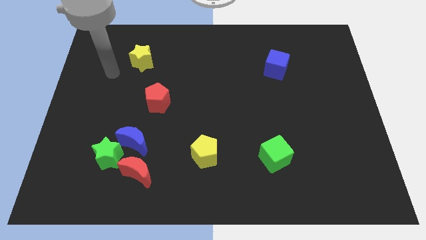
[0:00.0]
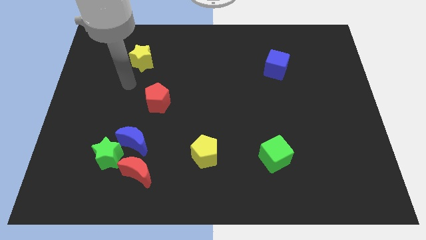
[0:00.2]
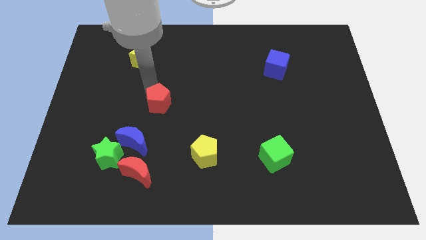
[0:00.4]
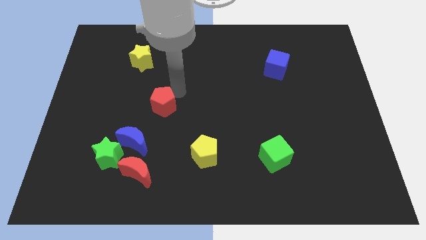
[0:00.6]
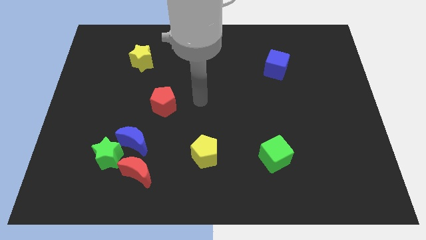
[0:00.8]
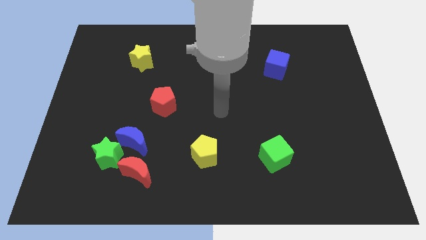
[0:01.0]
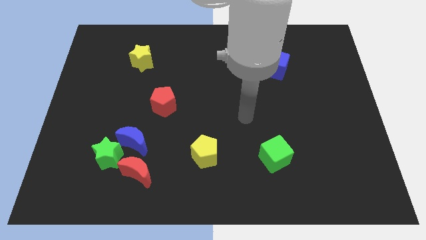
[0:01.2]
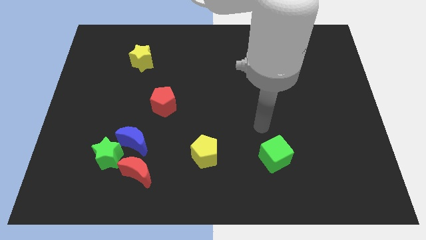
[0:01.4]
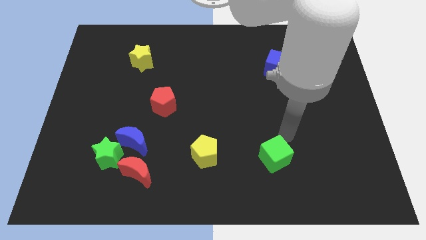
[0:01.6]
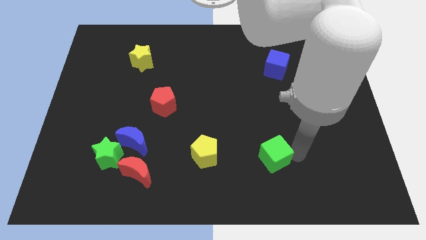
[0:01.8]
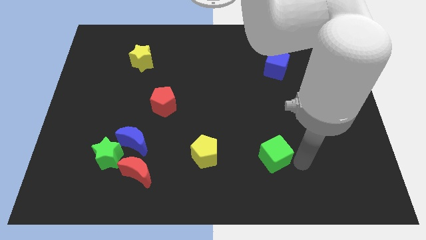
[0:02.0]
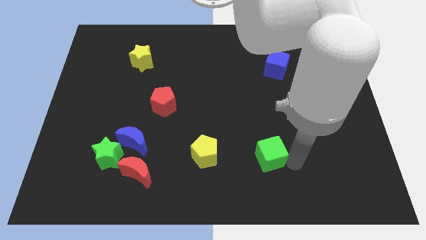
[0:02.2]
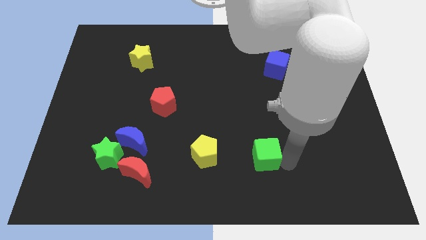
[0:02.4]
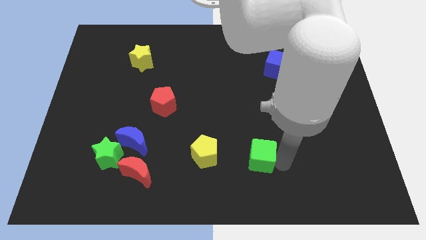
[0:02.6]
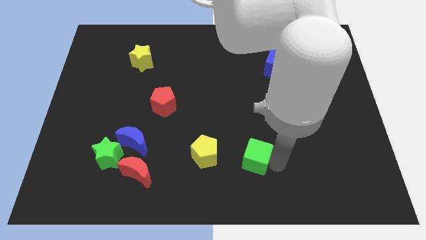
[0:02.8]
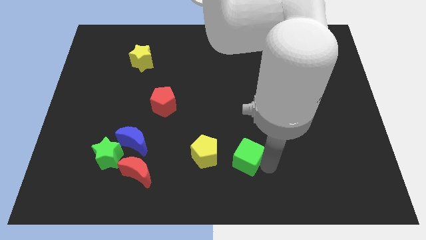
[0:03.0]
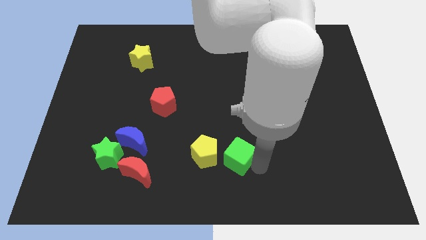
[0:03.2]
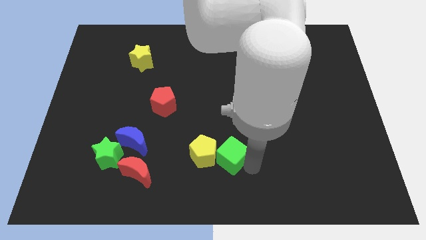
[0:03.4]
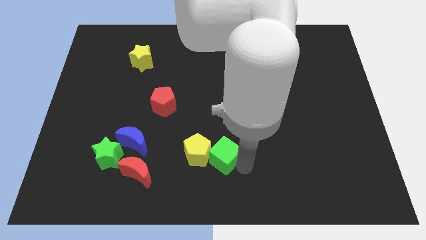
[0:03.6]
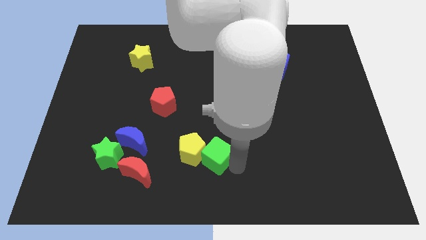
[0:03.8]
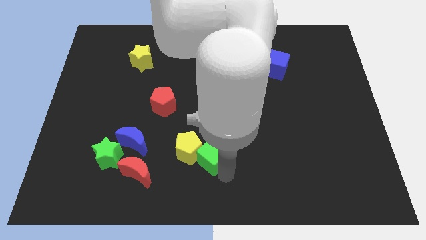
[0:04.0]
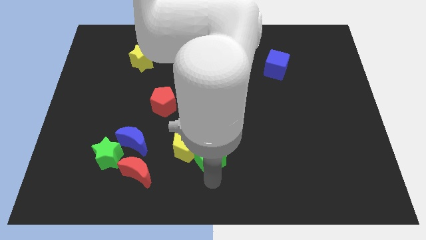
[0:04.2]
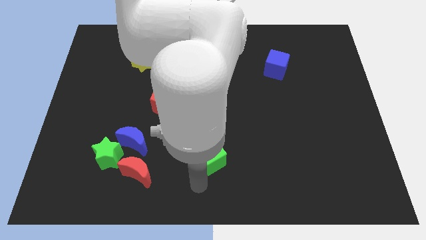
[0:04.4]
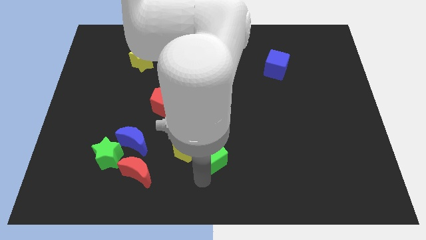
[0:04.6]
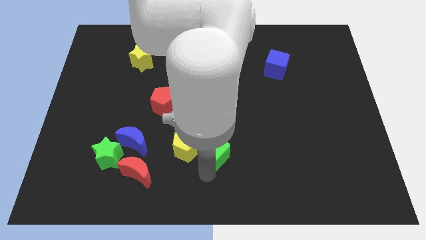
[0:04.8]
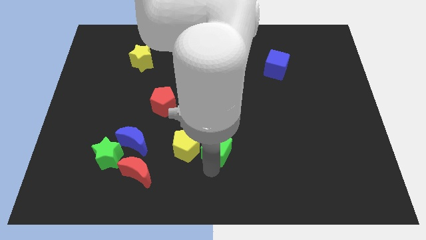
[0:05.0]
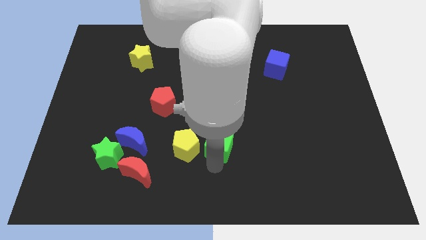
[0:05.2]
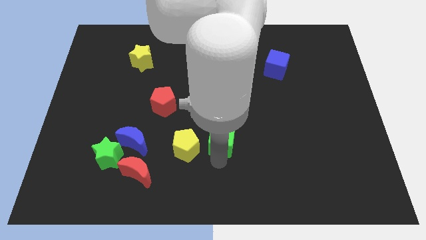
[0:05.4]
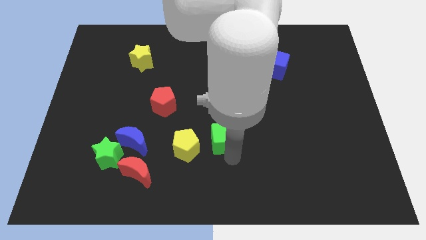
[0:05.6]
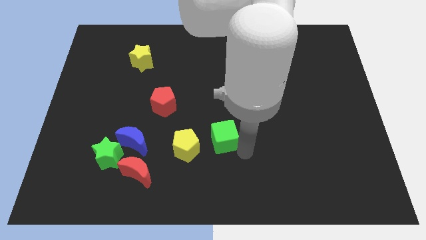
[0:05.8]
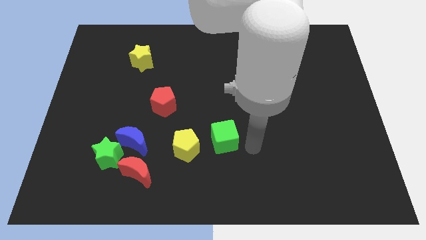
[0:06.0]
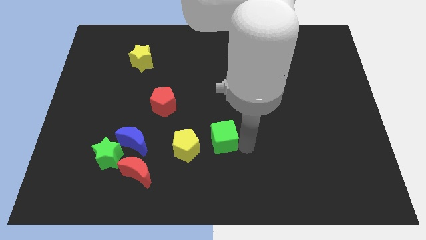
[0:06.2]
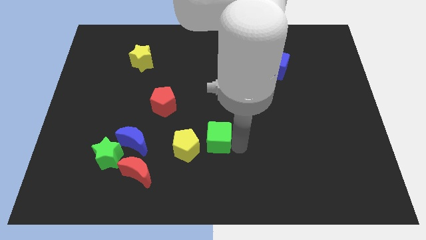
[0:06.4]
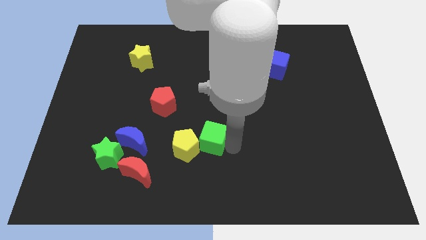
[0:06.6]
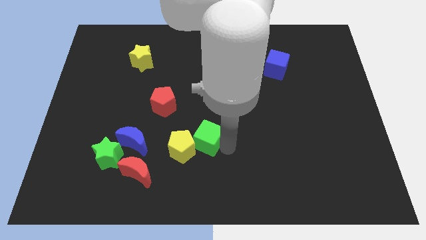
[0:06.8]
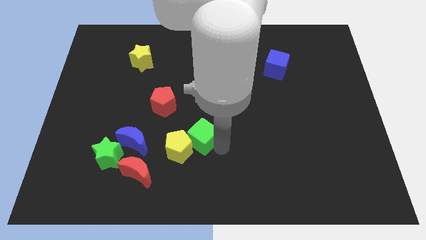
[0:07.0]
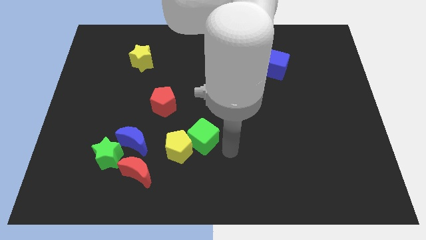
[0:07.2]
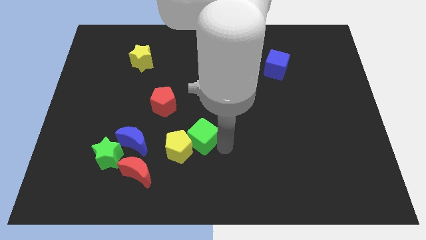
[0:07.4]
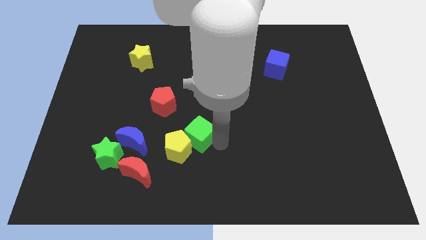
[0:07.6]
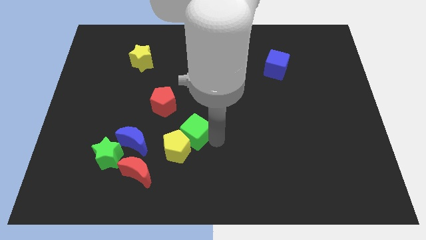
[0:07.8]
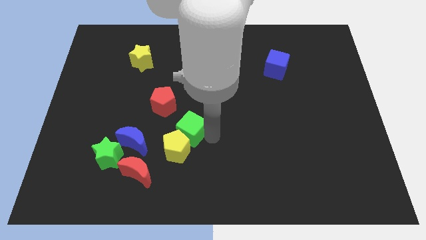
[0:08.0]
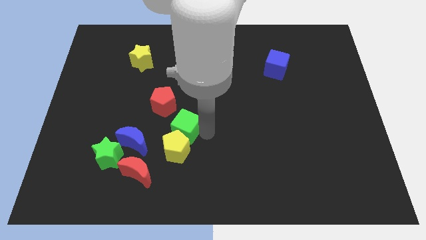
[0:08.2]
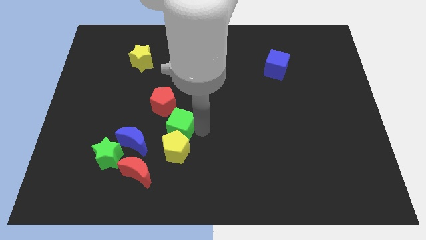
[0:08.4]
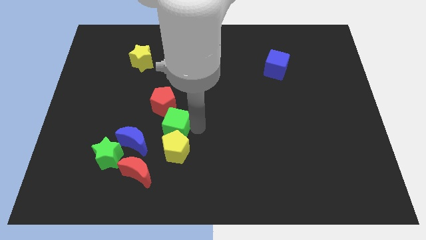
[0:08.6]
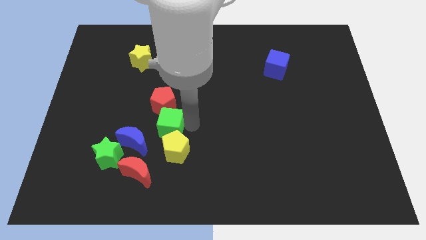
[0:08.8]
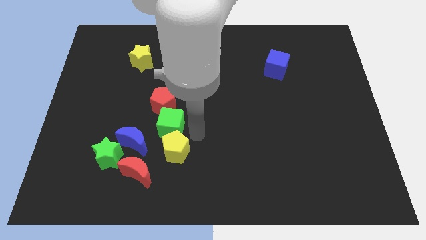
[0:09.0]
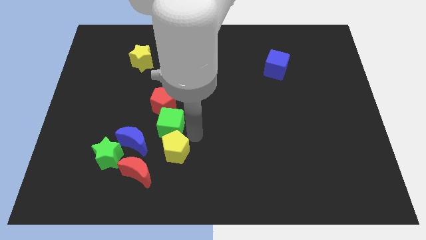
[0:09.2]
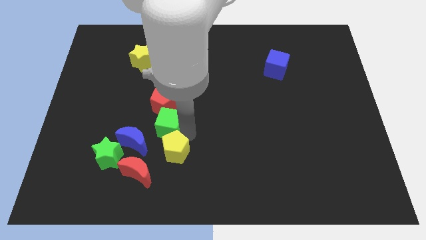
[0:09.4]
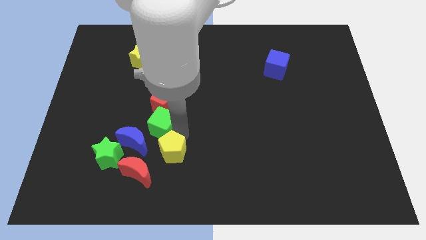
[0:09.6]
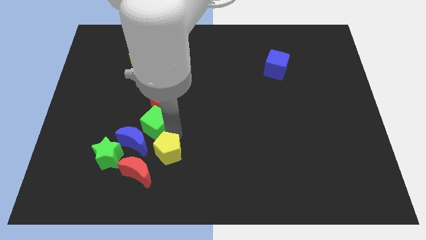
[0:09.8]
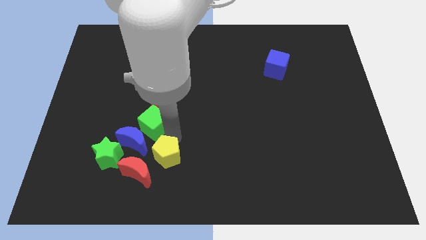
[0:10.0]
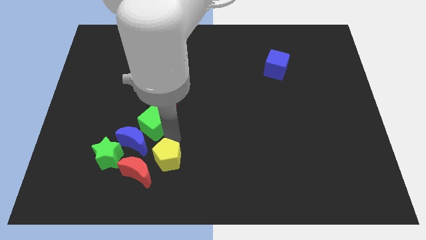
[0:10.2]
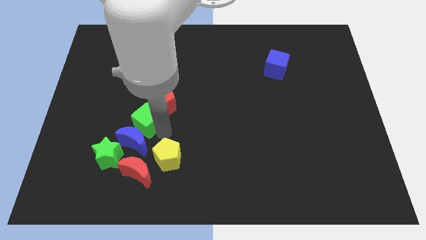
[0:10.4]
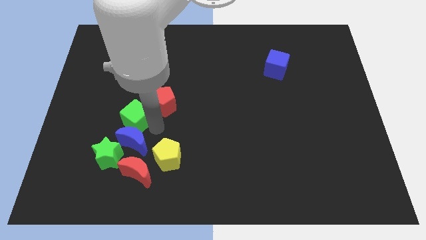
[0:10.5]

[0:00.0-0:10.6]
move the green cube to the left of the red pentagon

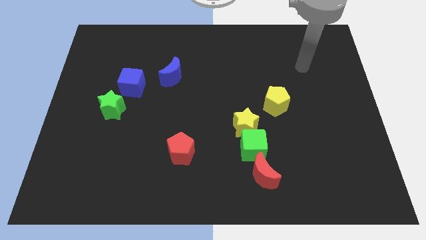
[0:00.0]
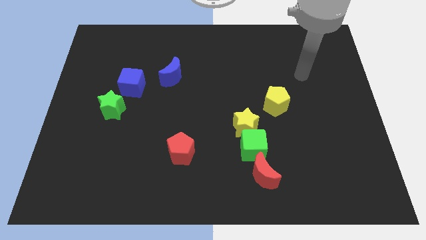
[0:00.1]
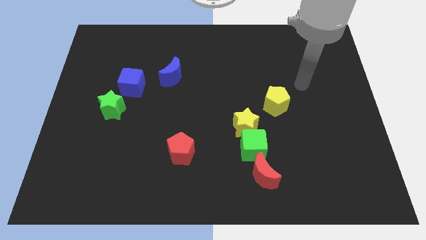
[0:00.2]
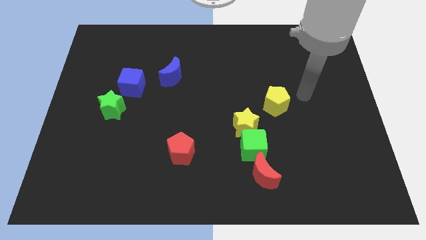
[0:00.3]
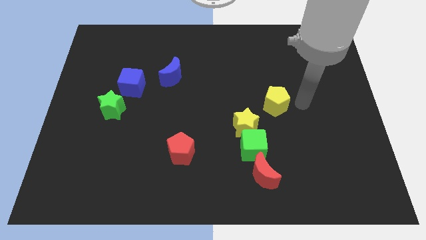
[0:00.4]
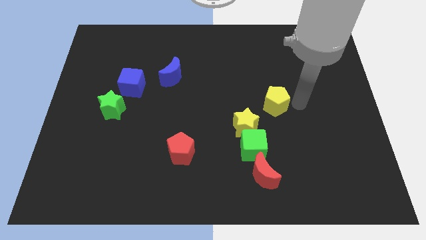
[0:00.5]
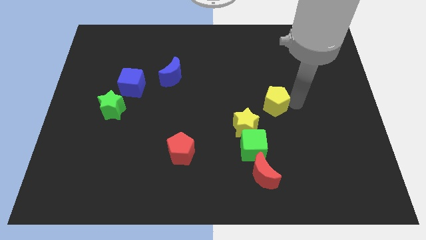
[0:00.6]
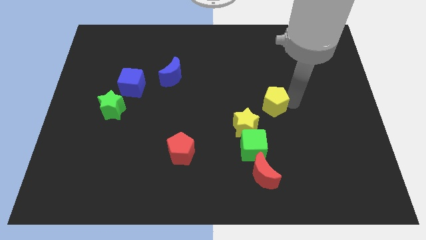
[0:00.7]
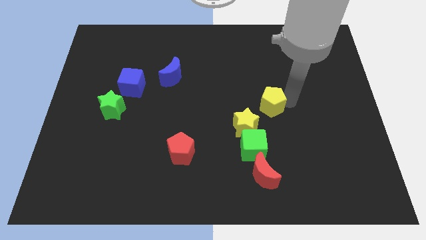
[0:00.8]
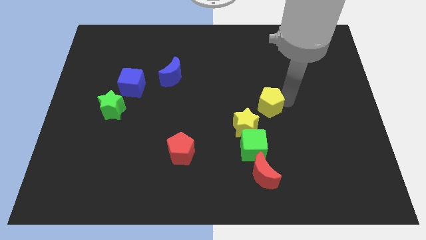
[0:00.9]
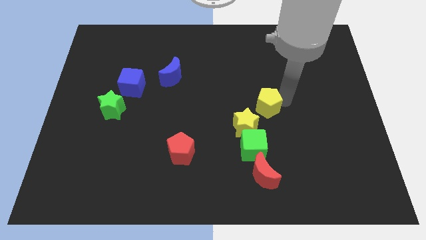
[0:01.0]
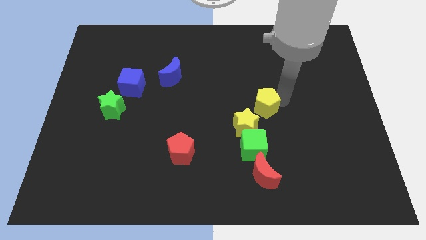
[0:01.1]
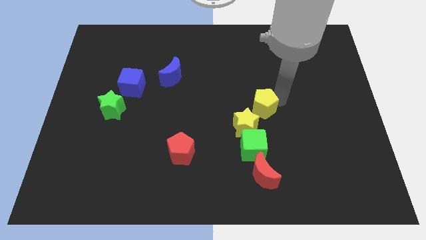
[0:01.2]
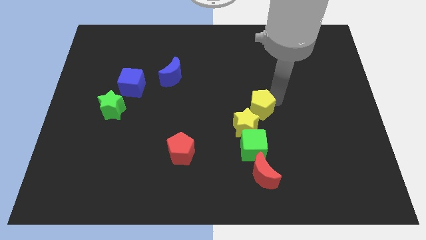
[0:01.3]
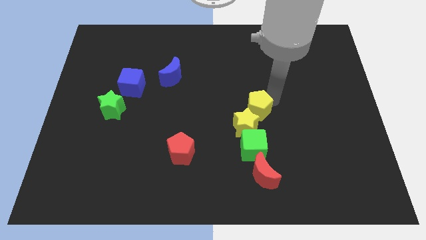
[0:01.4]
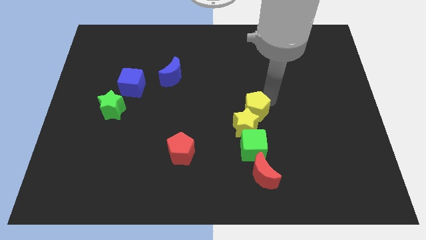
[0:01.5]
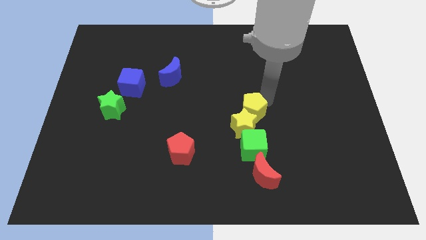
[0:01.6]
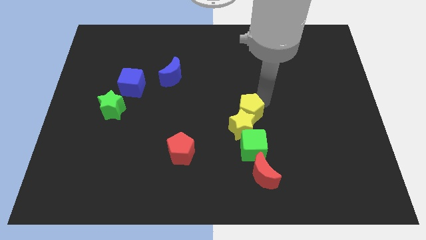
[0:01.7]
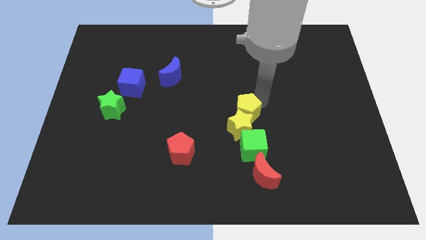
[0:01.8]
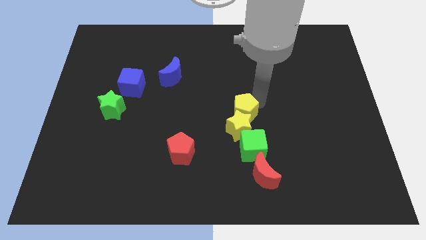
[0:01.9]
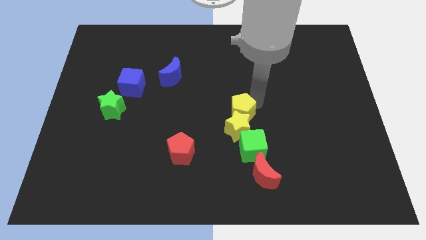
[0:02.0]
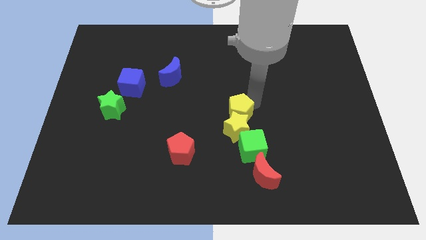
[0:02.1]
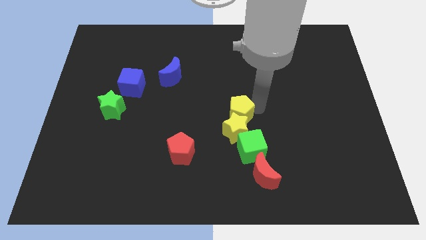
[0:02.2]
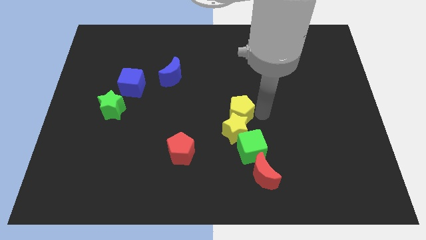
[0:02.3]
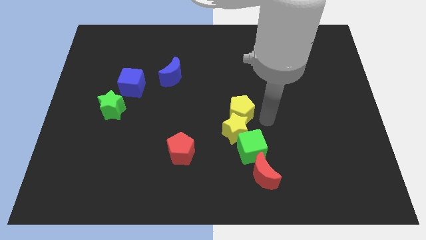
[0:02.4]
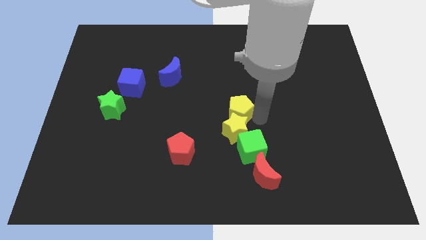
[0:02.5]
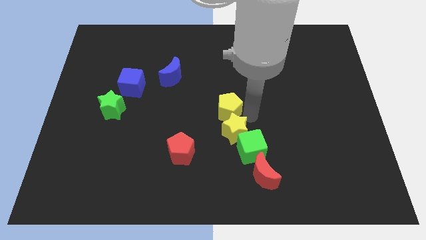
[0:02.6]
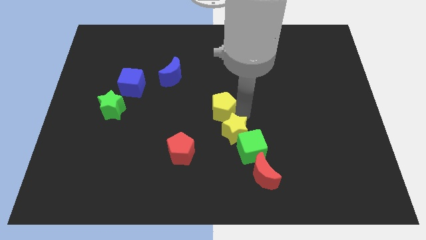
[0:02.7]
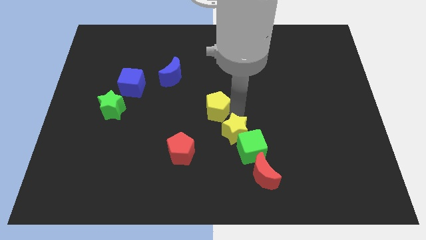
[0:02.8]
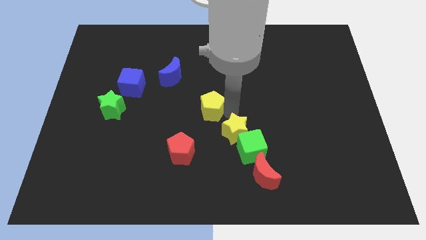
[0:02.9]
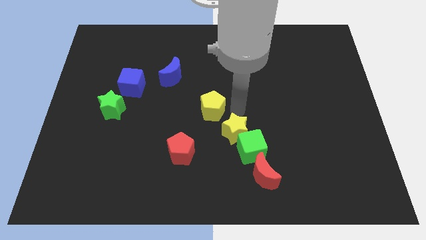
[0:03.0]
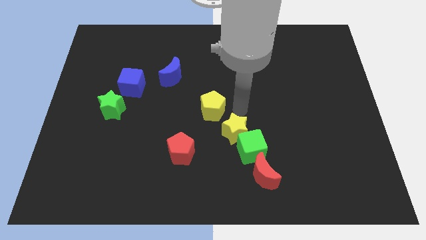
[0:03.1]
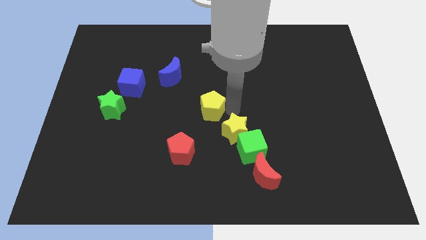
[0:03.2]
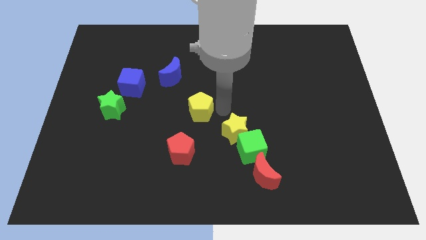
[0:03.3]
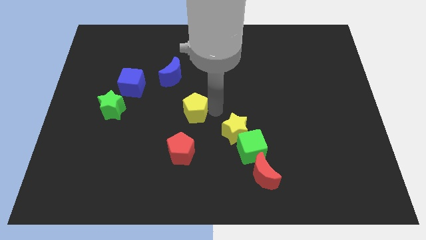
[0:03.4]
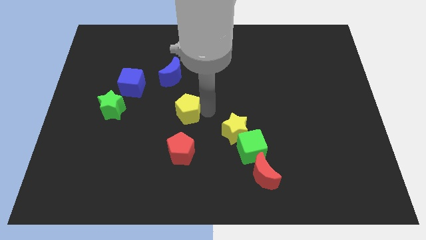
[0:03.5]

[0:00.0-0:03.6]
move the yellow pentagon to the bottom of the blue moon
